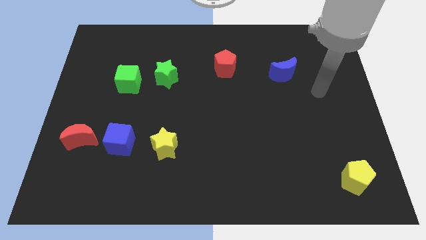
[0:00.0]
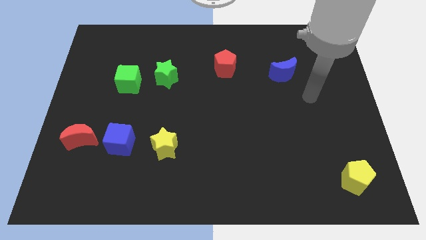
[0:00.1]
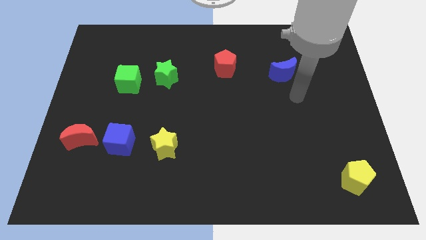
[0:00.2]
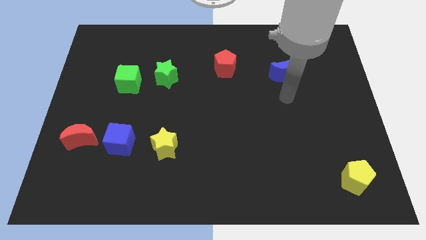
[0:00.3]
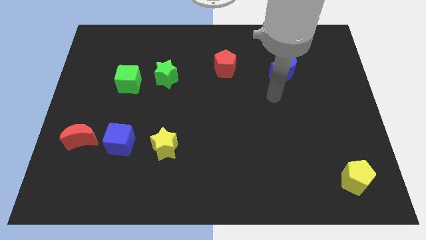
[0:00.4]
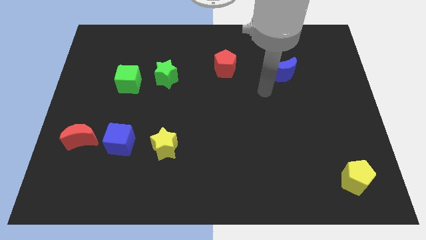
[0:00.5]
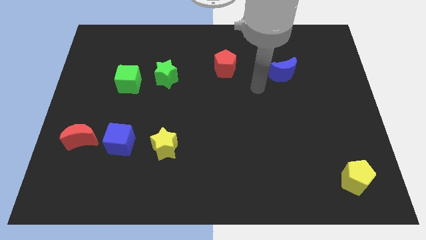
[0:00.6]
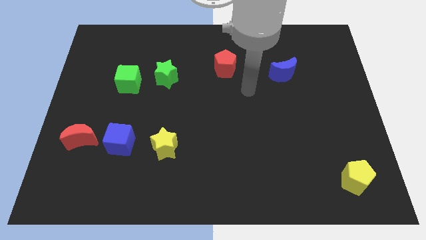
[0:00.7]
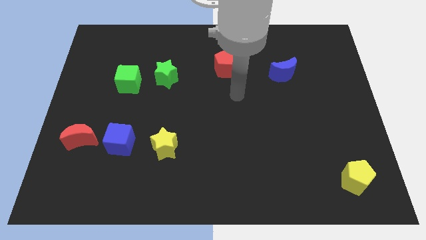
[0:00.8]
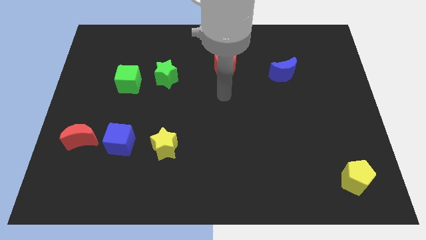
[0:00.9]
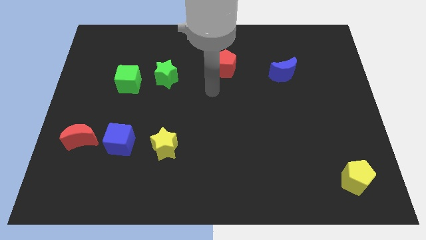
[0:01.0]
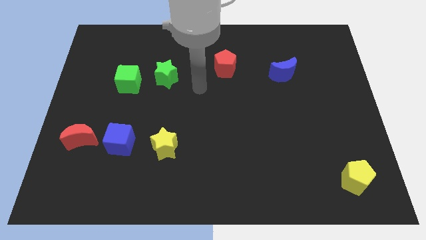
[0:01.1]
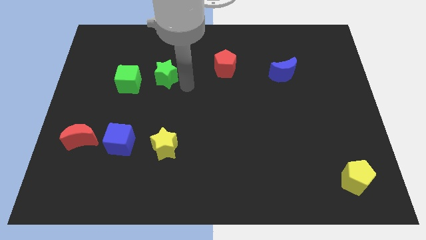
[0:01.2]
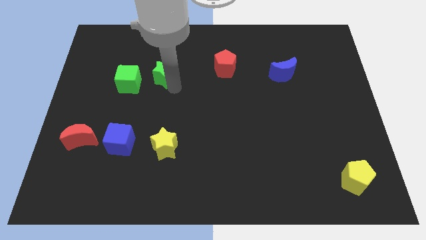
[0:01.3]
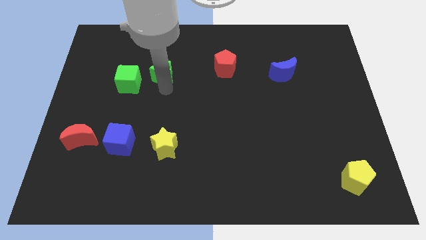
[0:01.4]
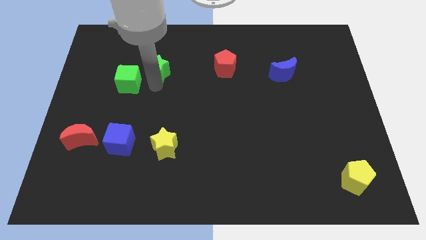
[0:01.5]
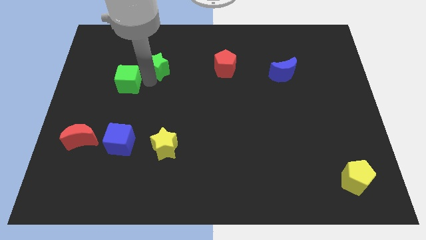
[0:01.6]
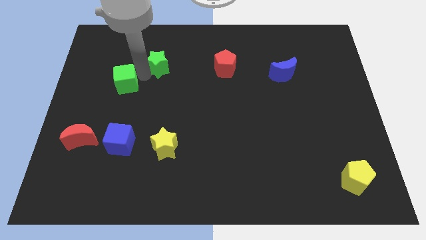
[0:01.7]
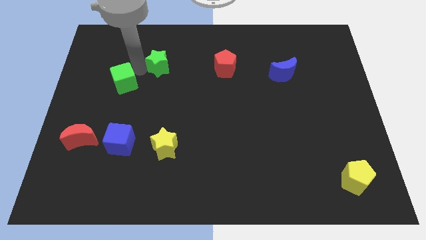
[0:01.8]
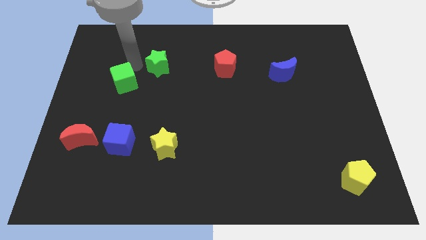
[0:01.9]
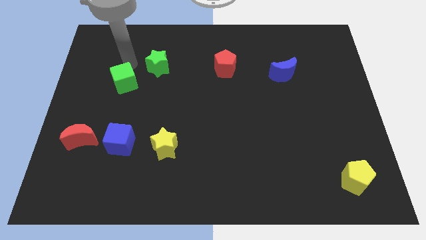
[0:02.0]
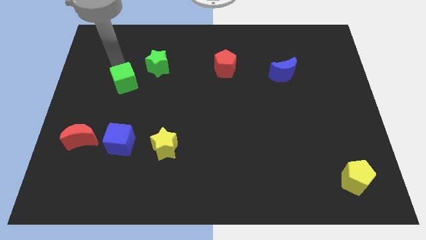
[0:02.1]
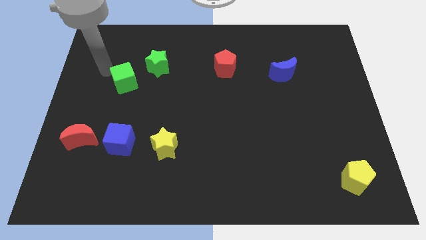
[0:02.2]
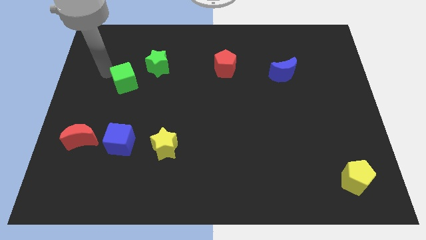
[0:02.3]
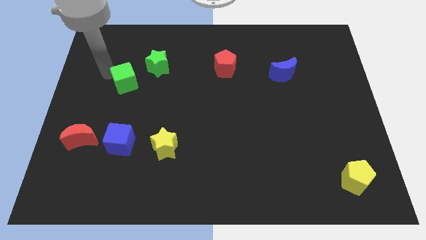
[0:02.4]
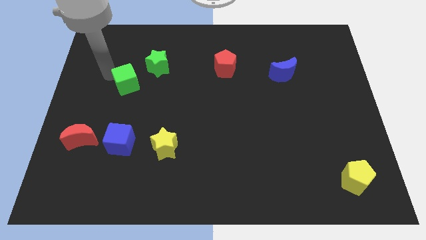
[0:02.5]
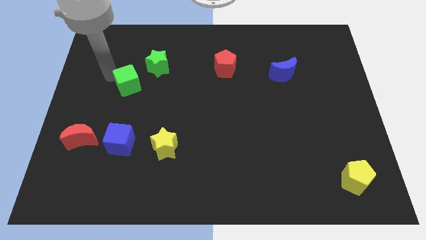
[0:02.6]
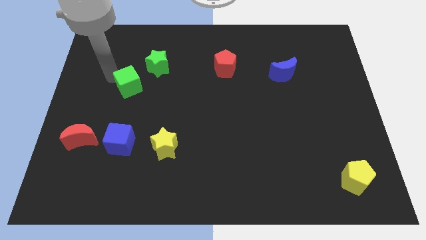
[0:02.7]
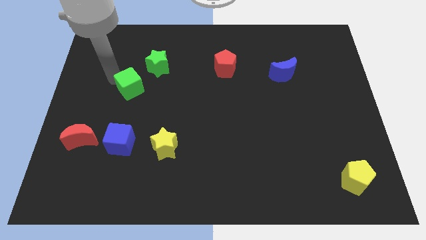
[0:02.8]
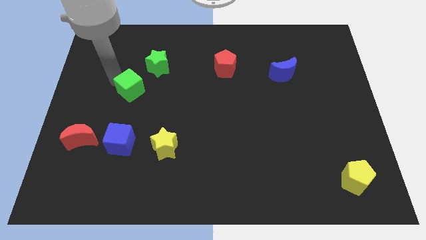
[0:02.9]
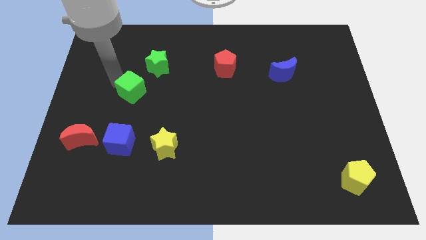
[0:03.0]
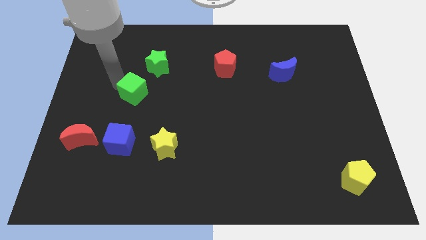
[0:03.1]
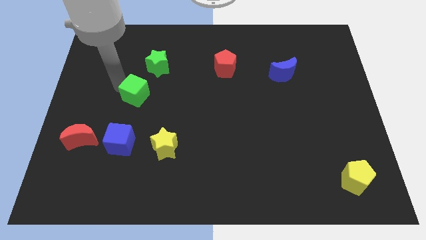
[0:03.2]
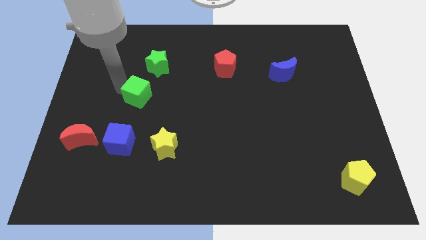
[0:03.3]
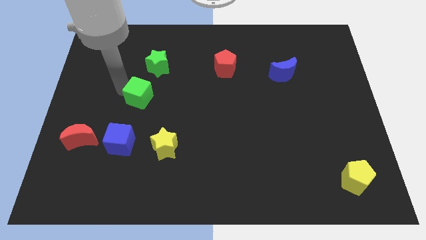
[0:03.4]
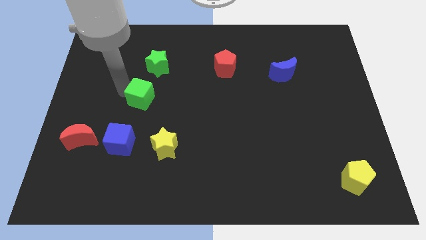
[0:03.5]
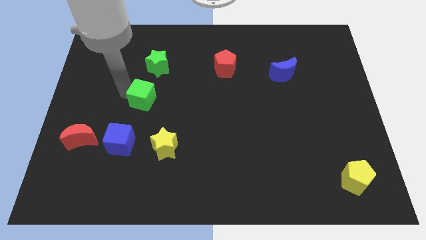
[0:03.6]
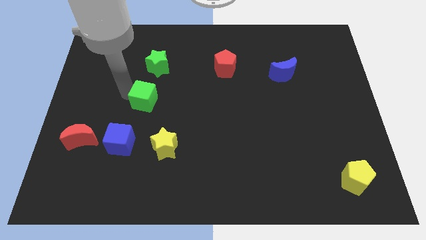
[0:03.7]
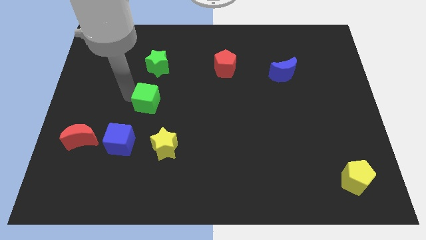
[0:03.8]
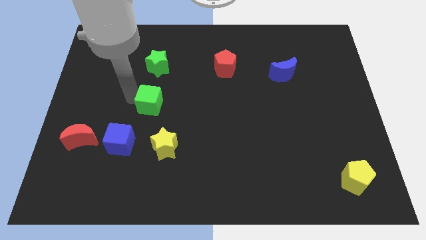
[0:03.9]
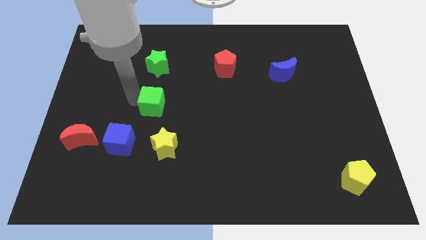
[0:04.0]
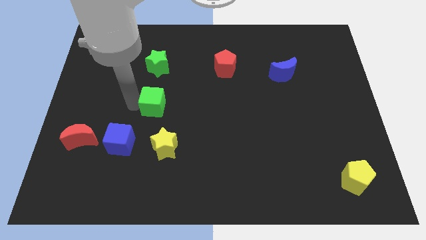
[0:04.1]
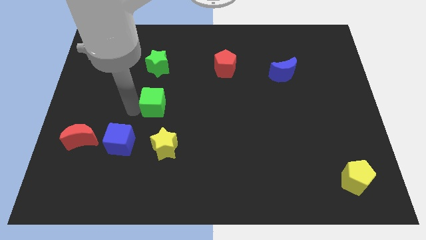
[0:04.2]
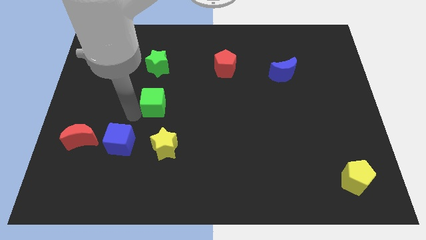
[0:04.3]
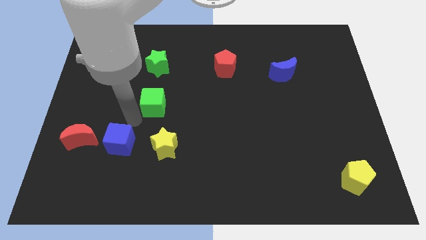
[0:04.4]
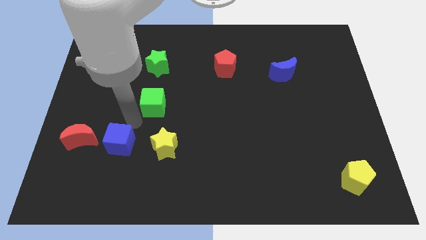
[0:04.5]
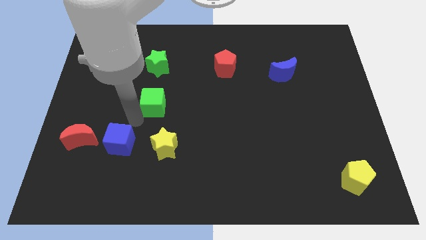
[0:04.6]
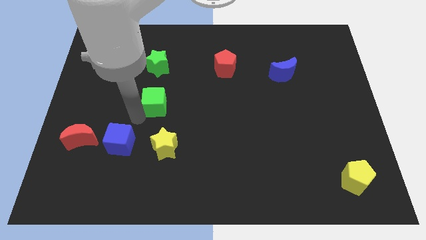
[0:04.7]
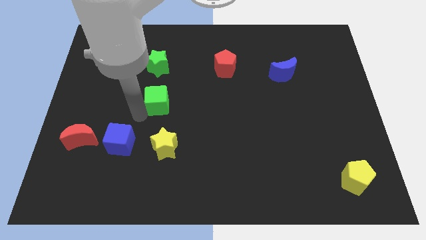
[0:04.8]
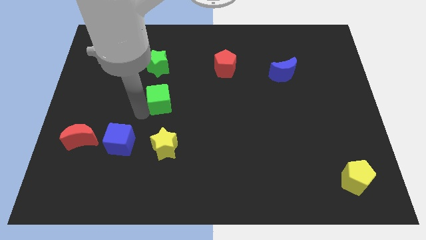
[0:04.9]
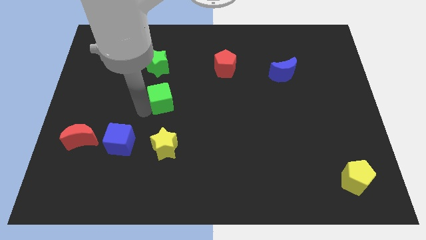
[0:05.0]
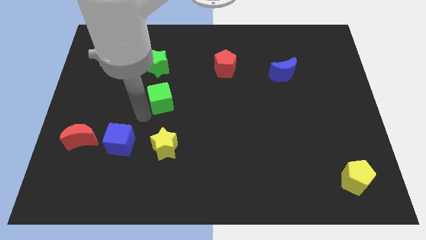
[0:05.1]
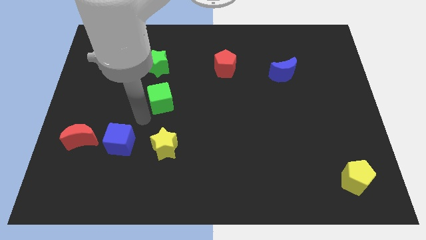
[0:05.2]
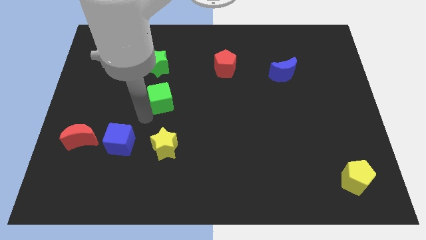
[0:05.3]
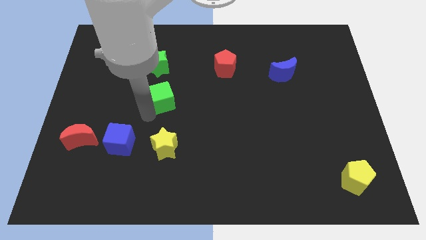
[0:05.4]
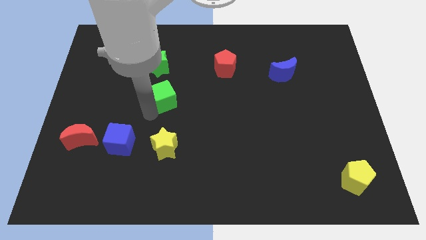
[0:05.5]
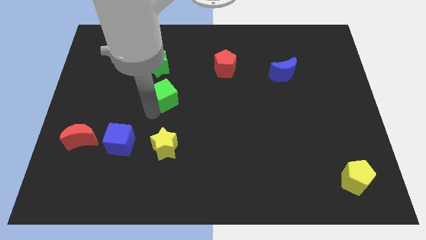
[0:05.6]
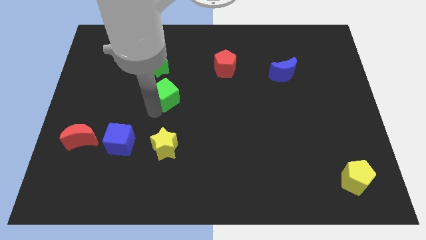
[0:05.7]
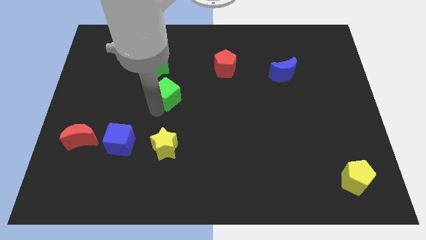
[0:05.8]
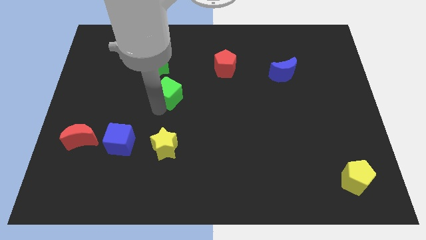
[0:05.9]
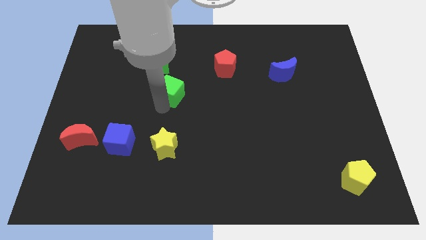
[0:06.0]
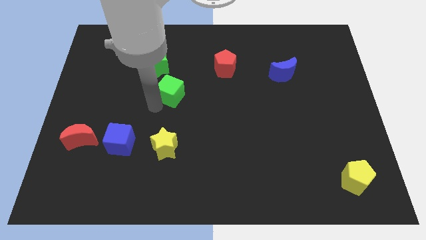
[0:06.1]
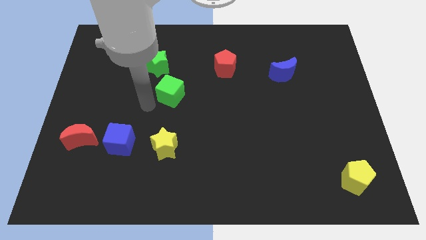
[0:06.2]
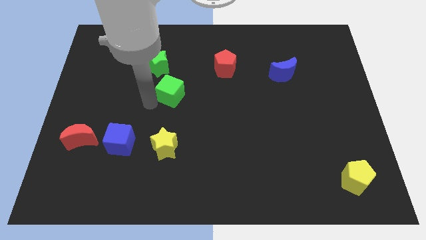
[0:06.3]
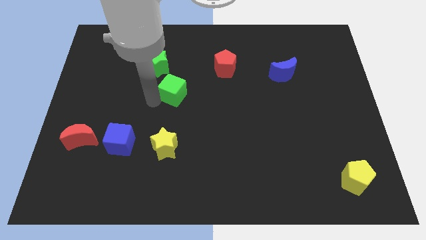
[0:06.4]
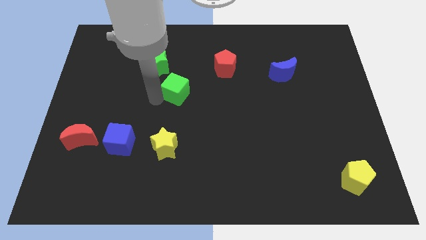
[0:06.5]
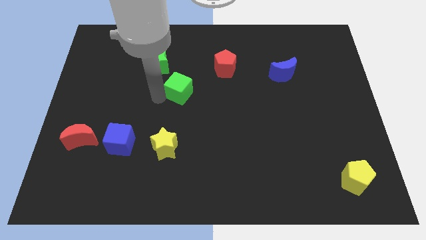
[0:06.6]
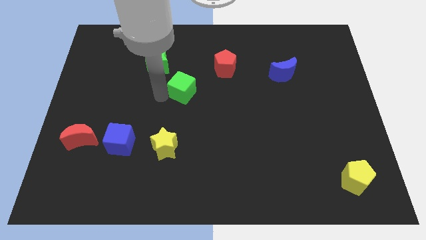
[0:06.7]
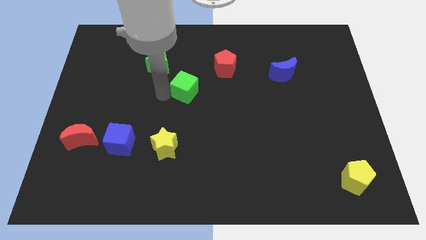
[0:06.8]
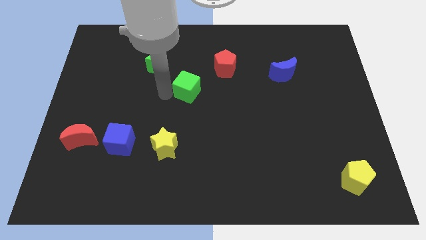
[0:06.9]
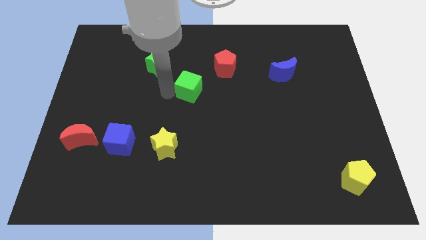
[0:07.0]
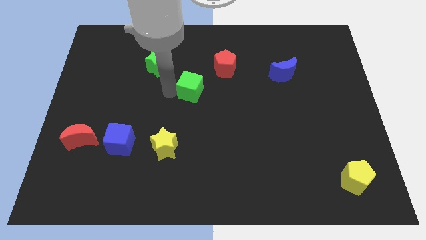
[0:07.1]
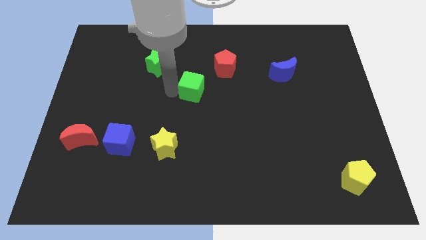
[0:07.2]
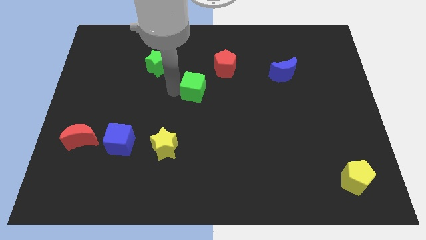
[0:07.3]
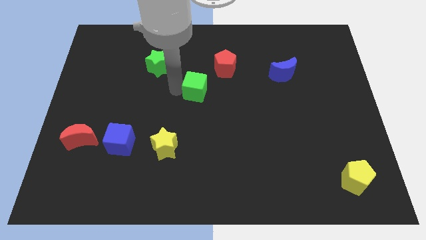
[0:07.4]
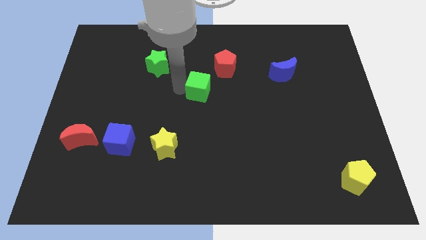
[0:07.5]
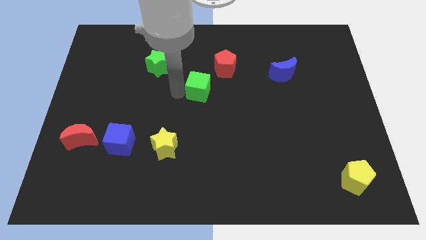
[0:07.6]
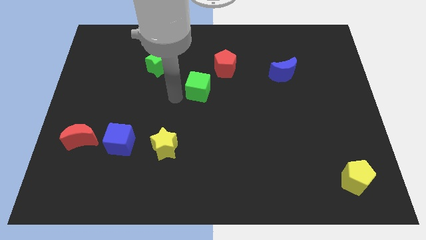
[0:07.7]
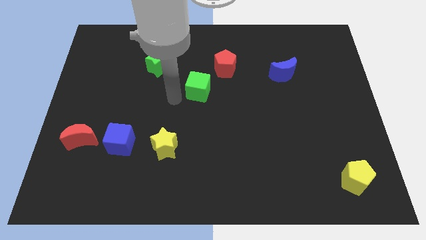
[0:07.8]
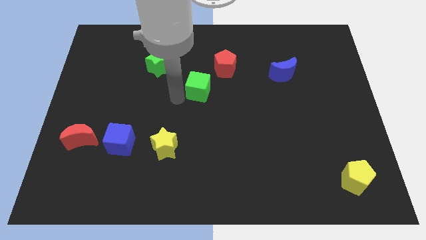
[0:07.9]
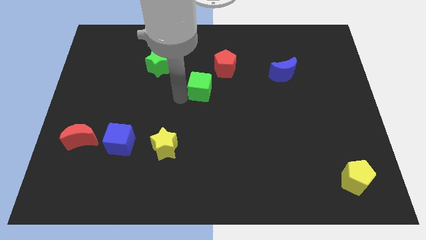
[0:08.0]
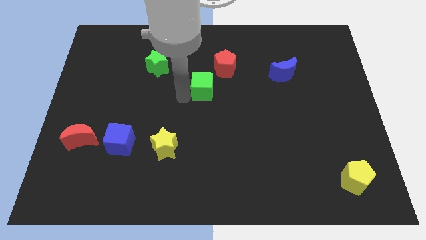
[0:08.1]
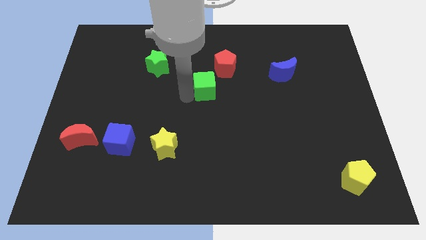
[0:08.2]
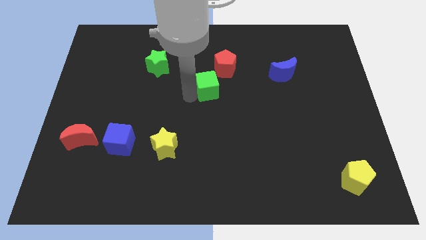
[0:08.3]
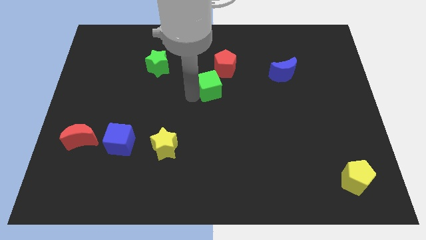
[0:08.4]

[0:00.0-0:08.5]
move the green cube right
